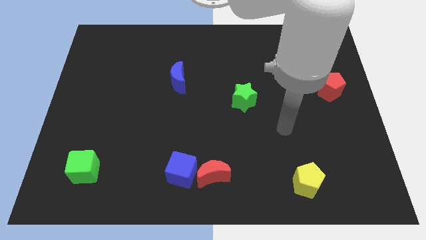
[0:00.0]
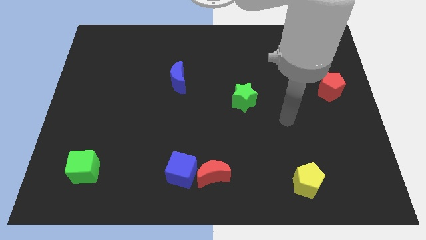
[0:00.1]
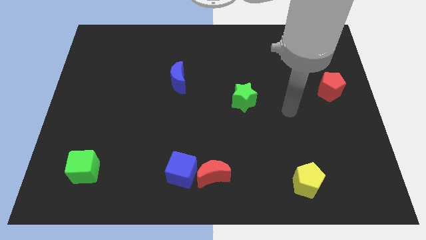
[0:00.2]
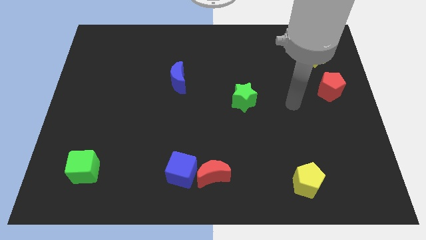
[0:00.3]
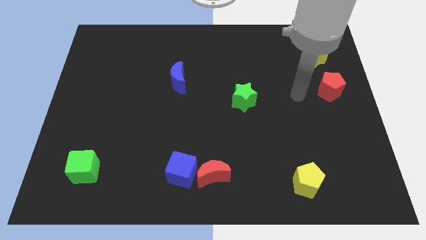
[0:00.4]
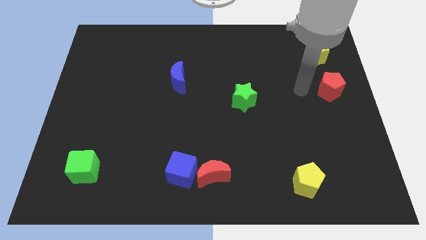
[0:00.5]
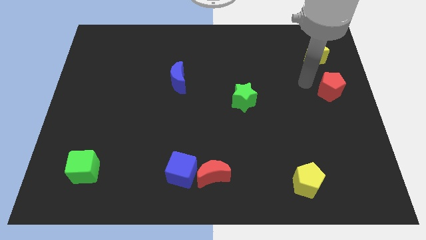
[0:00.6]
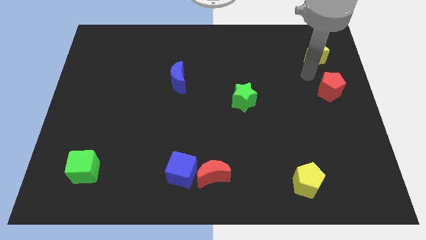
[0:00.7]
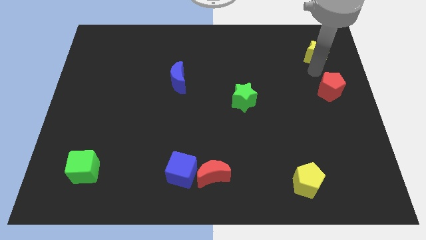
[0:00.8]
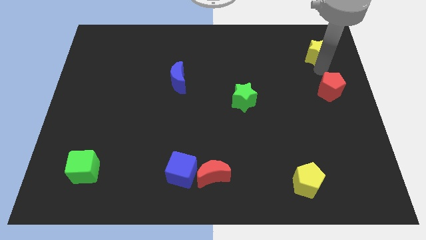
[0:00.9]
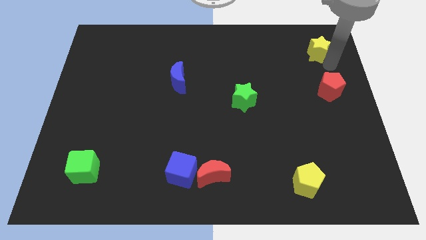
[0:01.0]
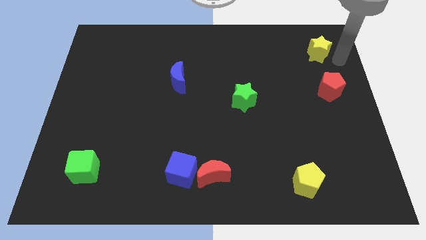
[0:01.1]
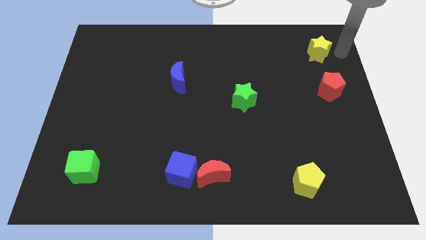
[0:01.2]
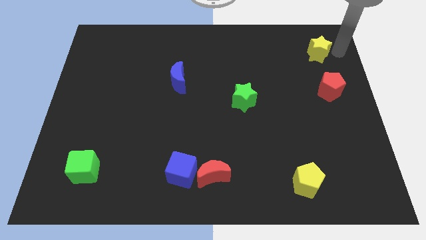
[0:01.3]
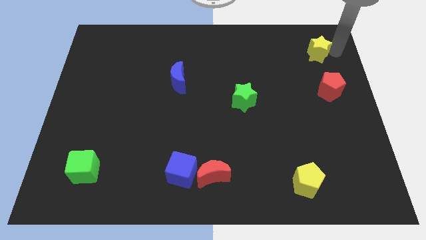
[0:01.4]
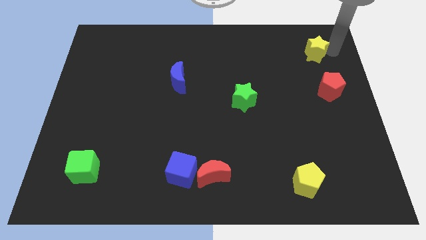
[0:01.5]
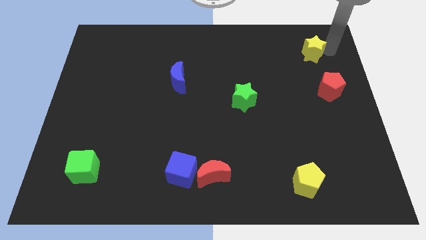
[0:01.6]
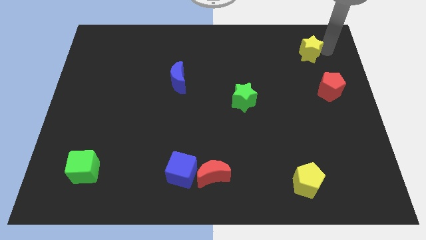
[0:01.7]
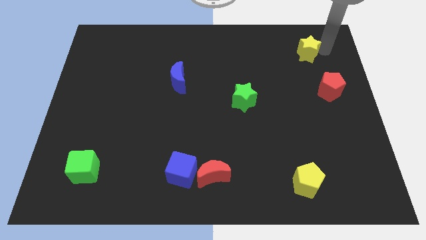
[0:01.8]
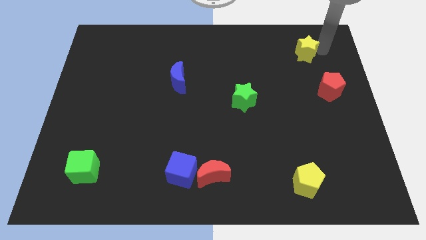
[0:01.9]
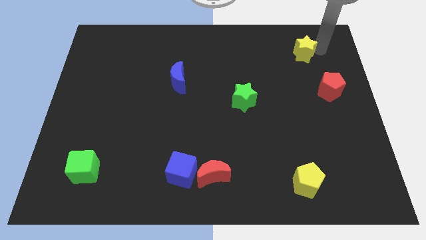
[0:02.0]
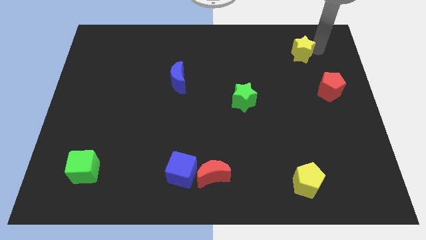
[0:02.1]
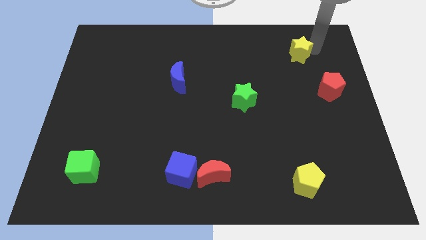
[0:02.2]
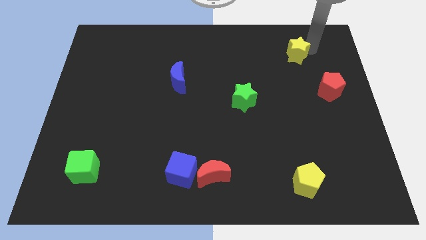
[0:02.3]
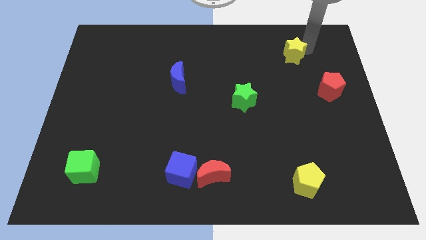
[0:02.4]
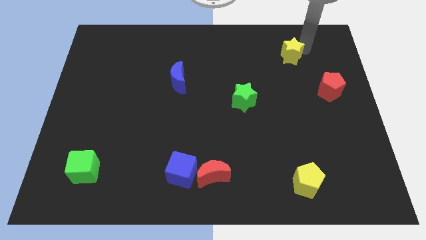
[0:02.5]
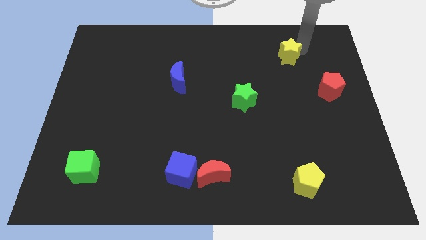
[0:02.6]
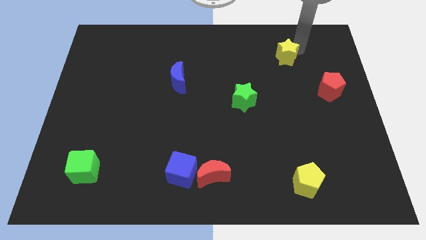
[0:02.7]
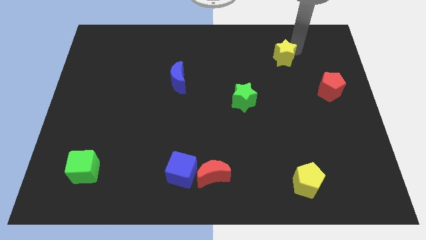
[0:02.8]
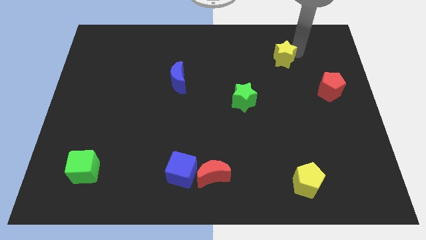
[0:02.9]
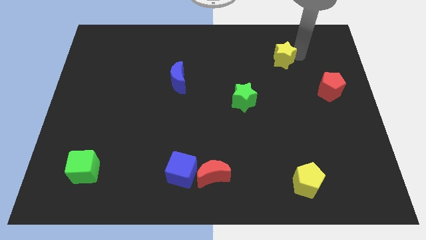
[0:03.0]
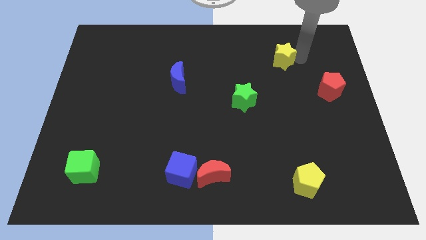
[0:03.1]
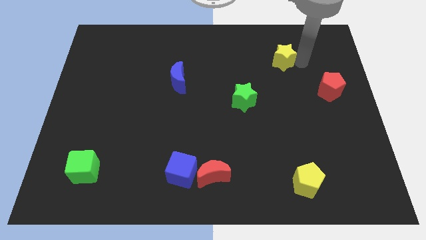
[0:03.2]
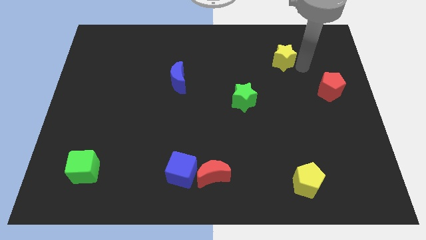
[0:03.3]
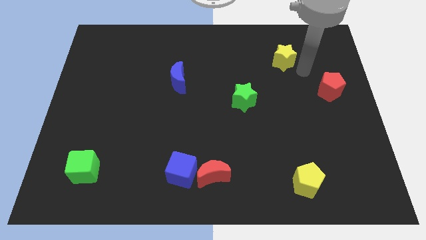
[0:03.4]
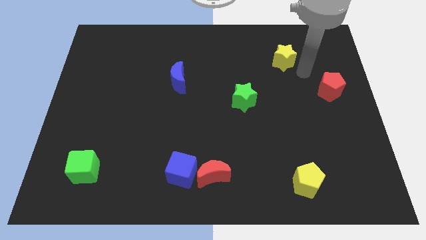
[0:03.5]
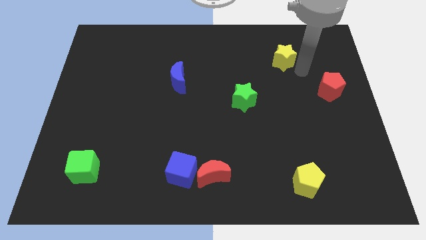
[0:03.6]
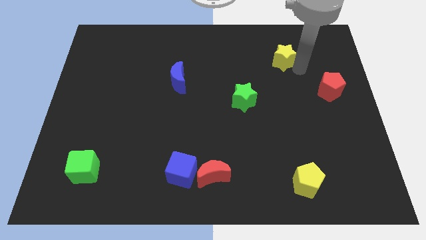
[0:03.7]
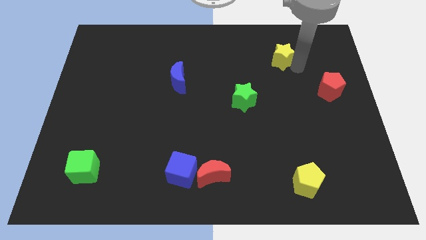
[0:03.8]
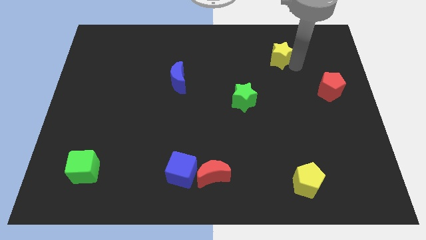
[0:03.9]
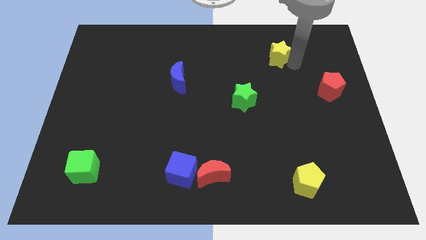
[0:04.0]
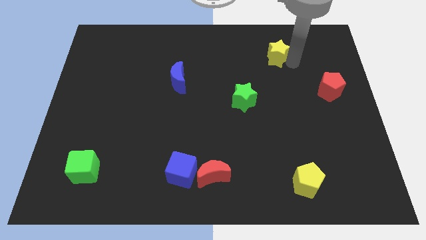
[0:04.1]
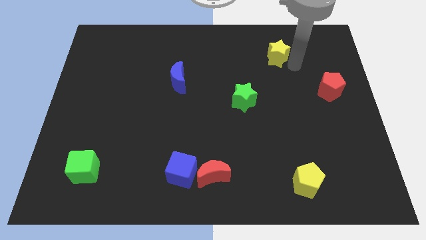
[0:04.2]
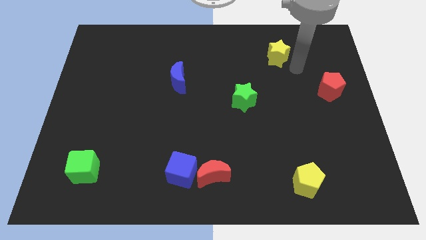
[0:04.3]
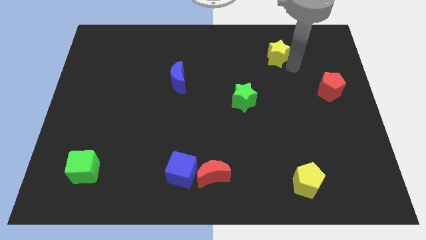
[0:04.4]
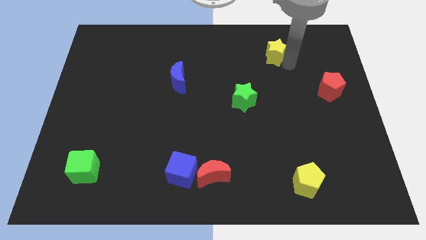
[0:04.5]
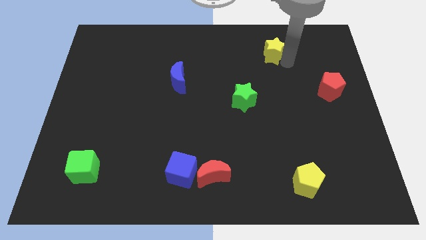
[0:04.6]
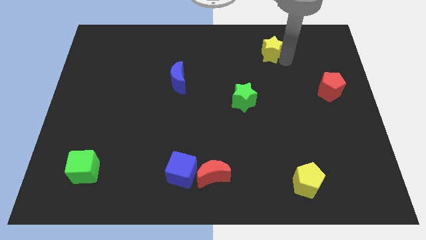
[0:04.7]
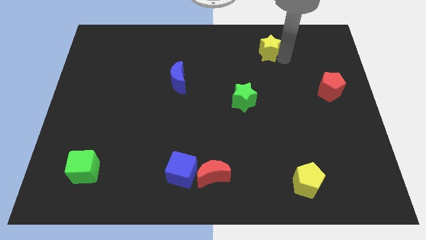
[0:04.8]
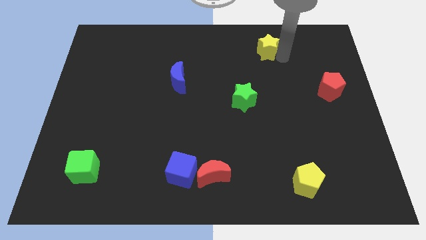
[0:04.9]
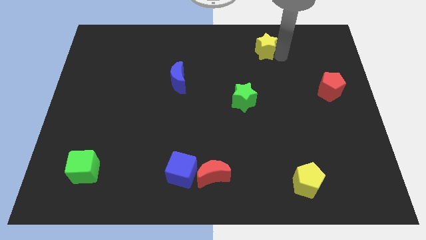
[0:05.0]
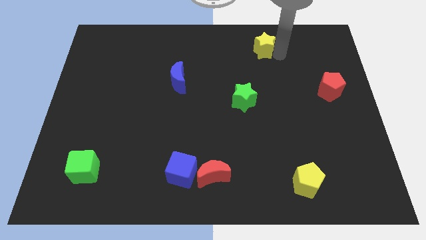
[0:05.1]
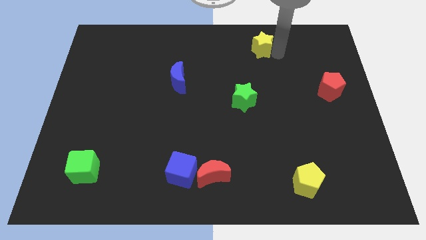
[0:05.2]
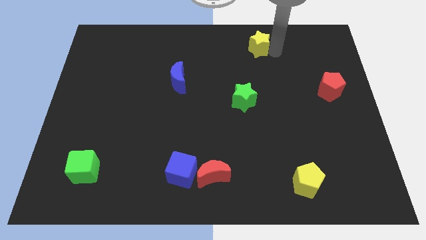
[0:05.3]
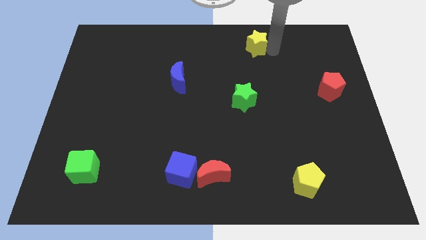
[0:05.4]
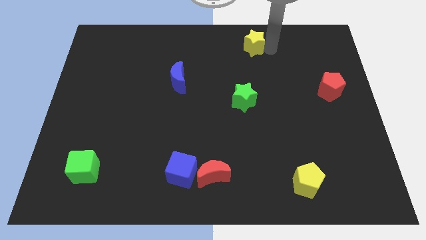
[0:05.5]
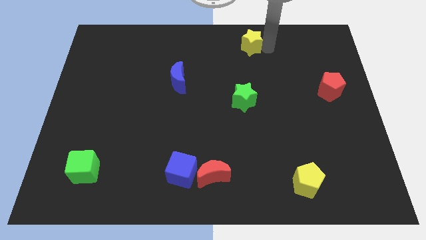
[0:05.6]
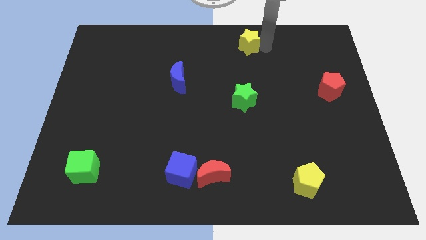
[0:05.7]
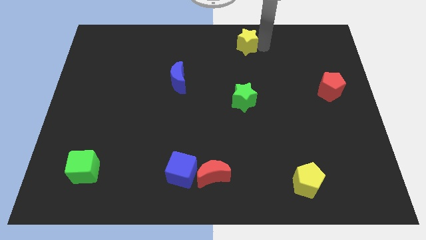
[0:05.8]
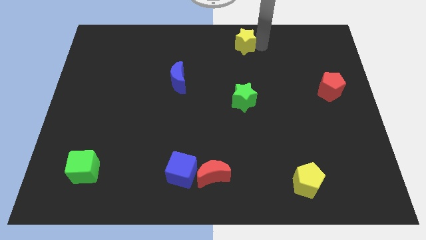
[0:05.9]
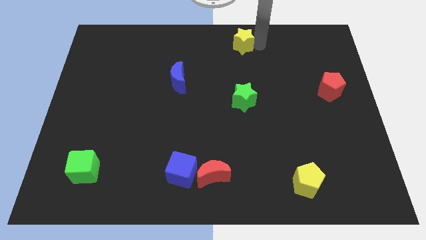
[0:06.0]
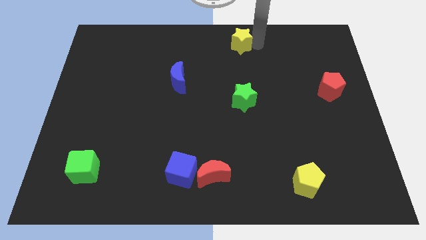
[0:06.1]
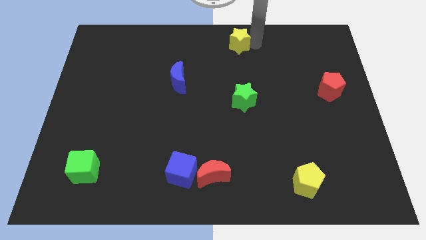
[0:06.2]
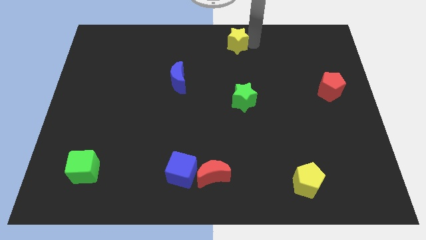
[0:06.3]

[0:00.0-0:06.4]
push the yellow star to the left

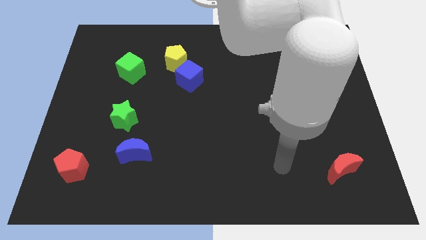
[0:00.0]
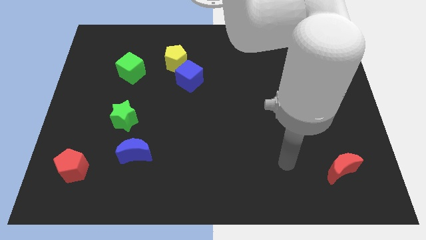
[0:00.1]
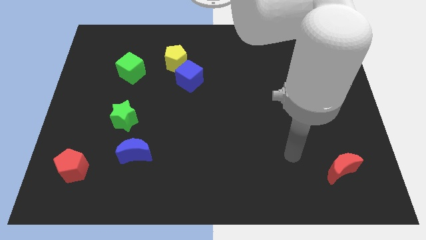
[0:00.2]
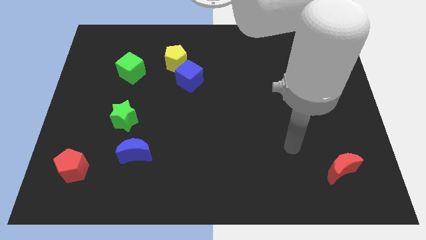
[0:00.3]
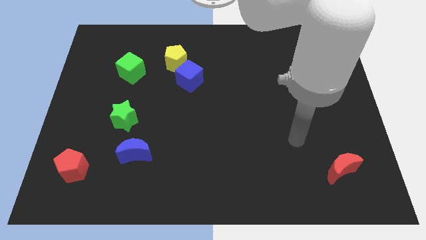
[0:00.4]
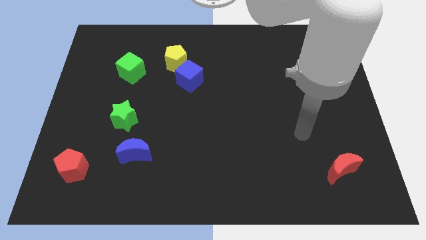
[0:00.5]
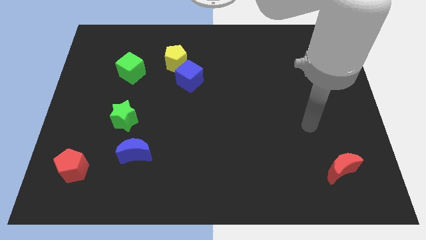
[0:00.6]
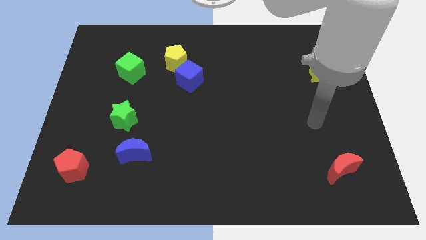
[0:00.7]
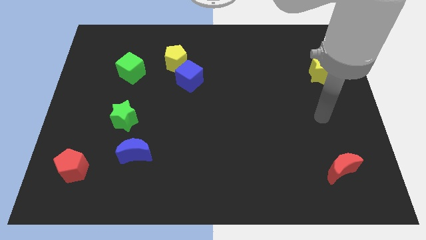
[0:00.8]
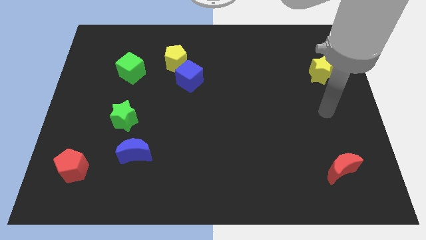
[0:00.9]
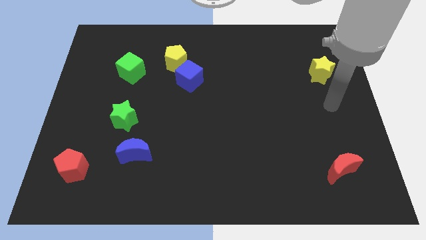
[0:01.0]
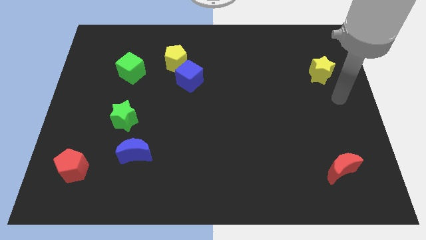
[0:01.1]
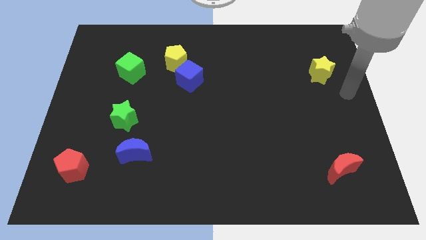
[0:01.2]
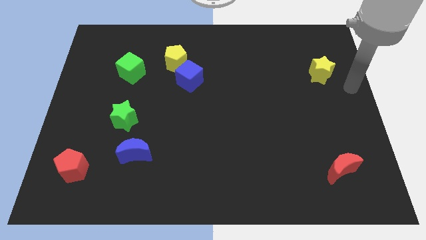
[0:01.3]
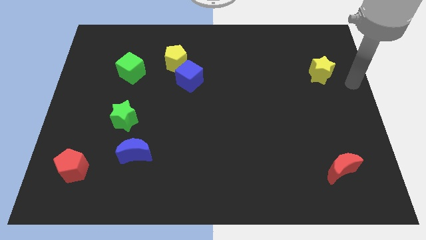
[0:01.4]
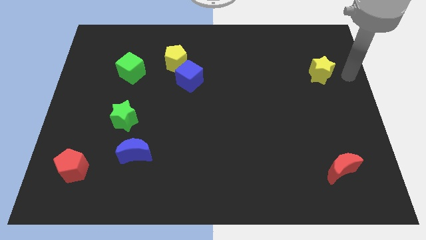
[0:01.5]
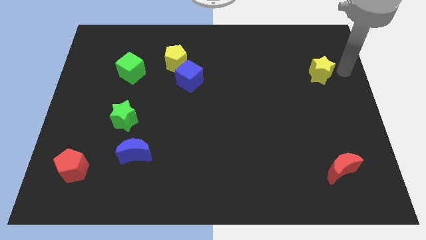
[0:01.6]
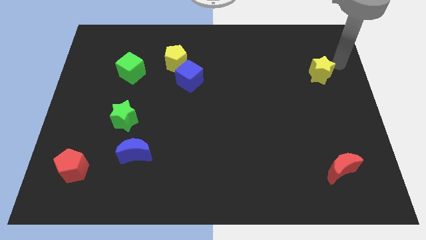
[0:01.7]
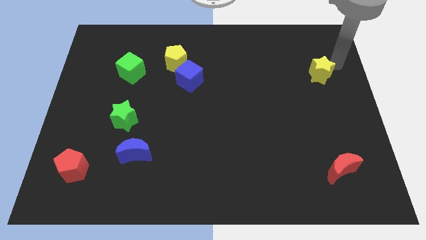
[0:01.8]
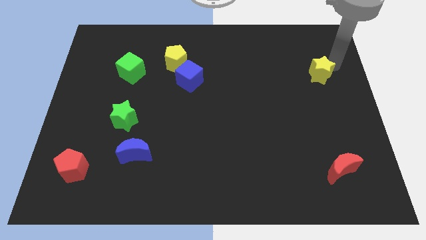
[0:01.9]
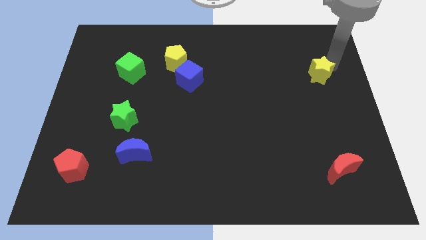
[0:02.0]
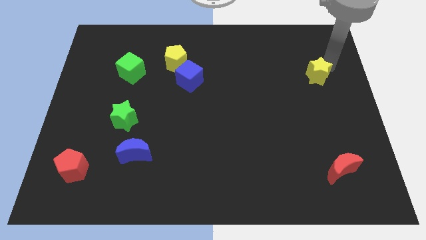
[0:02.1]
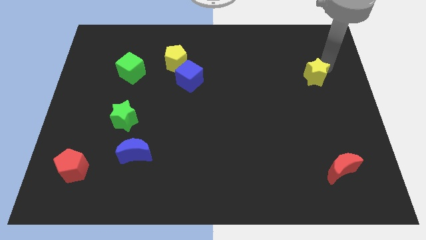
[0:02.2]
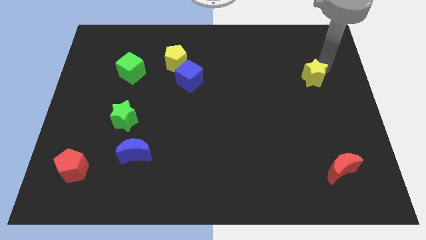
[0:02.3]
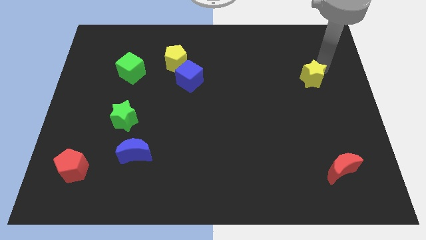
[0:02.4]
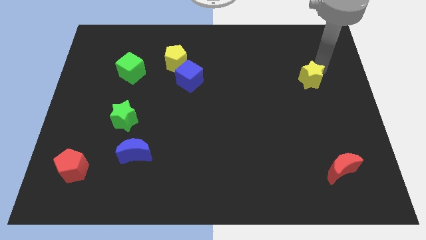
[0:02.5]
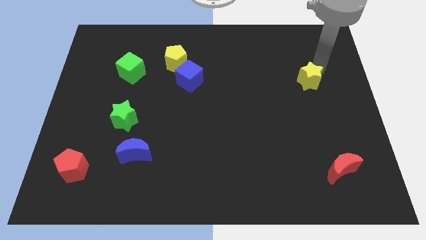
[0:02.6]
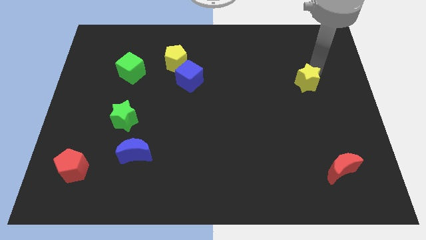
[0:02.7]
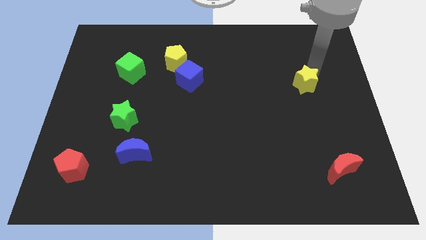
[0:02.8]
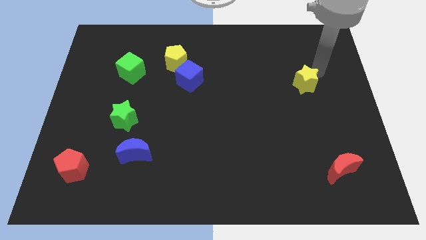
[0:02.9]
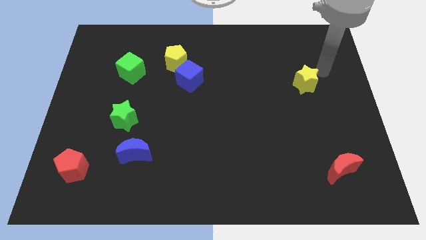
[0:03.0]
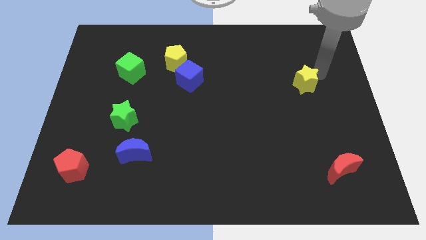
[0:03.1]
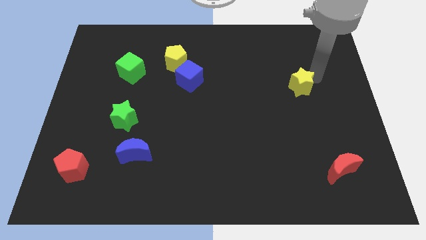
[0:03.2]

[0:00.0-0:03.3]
slightly slide the yellow star downwards and to the left diagonally
